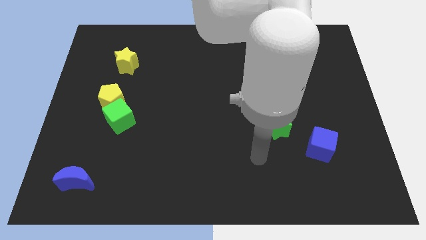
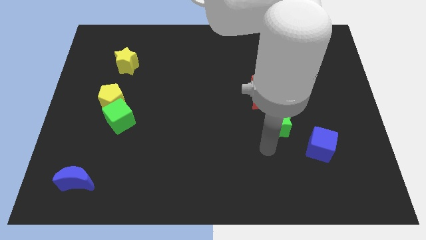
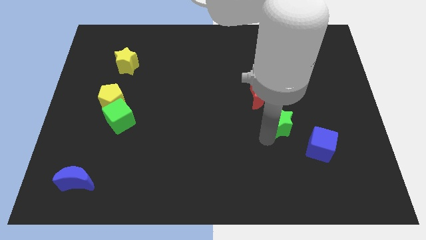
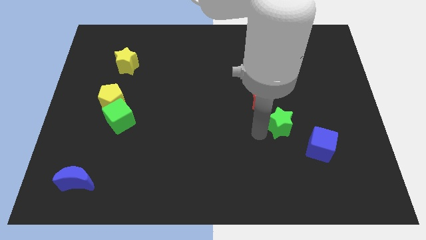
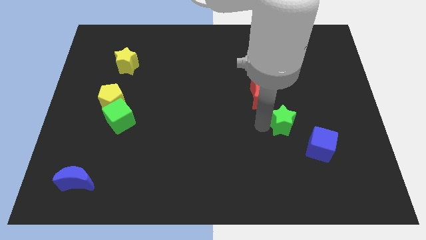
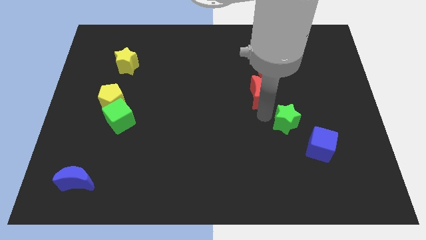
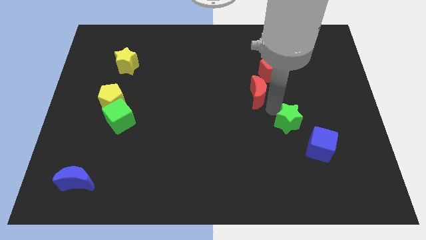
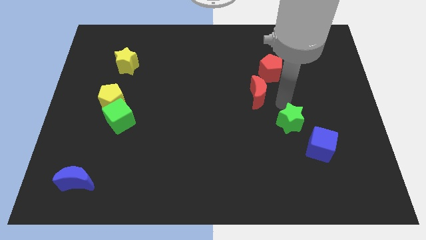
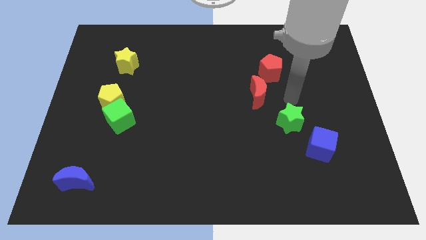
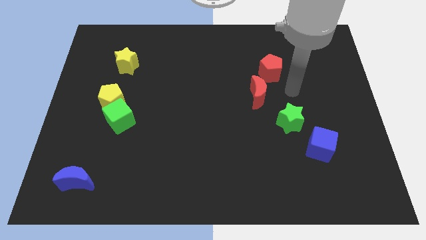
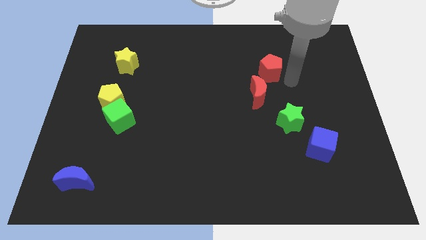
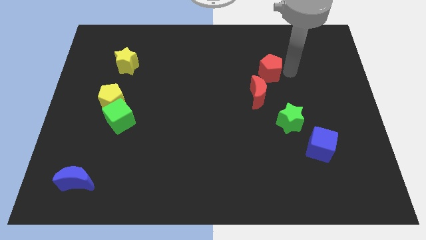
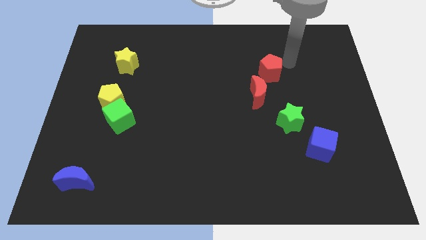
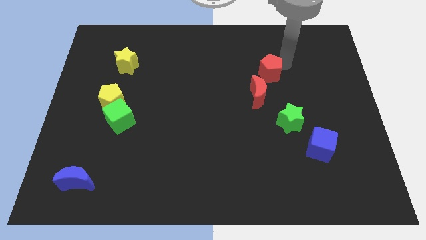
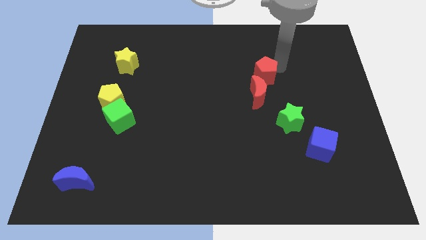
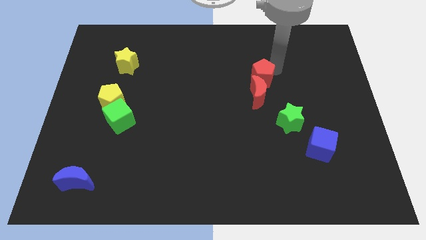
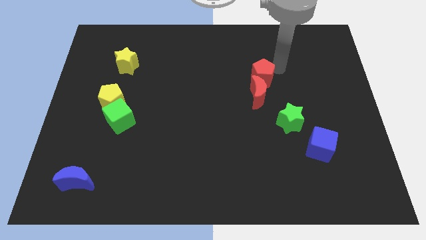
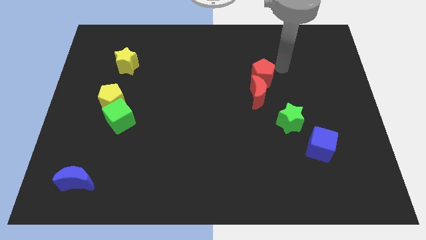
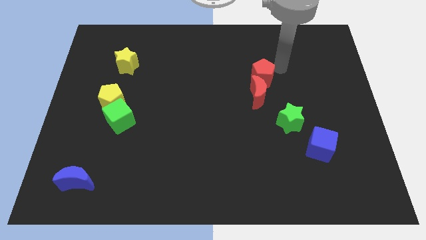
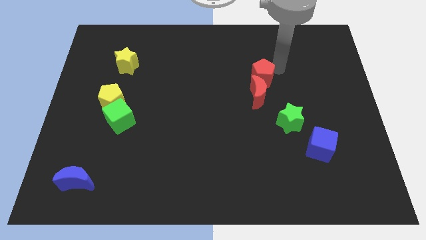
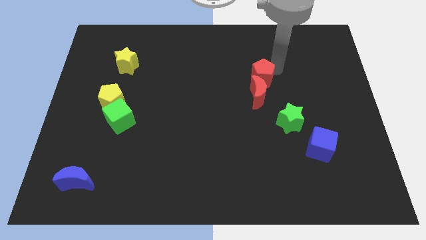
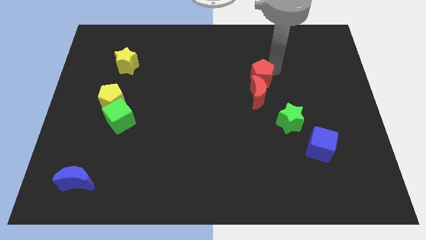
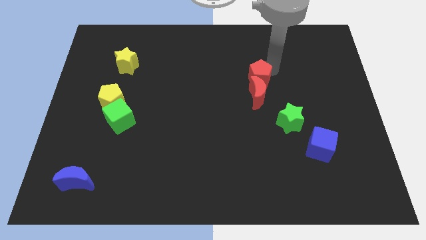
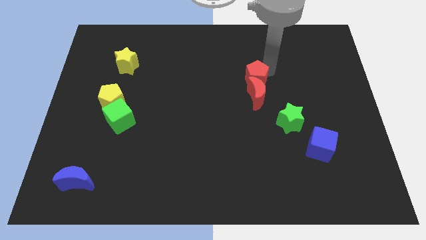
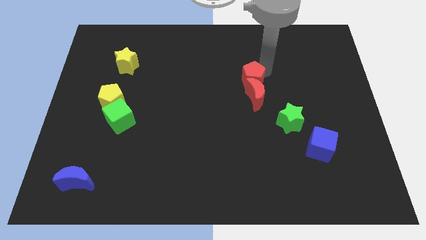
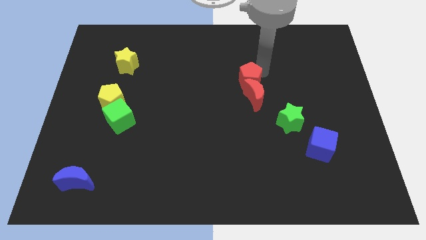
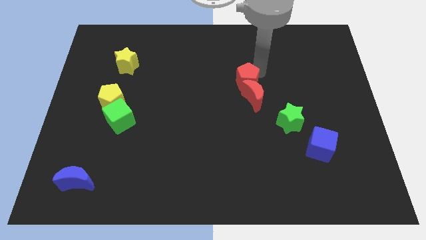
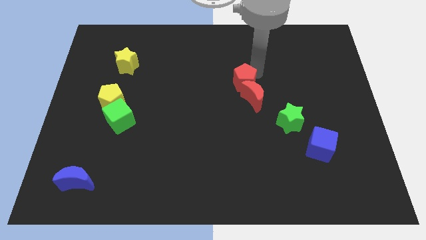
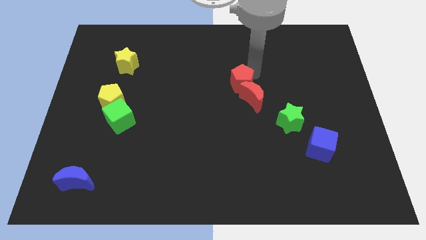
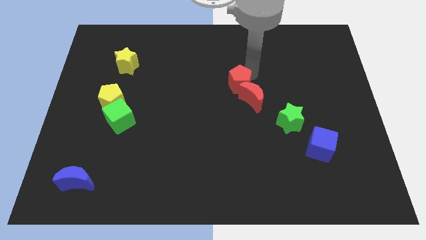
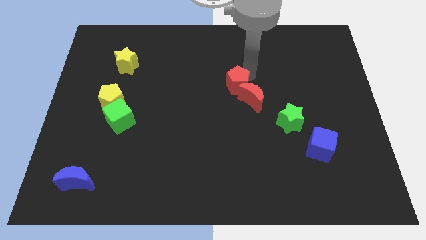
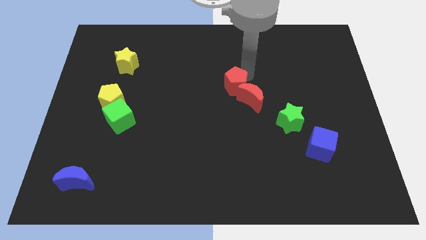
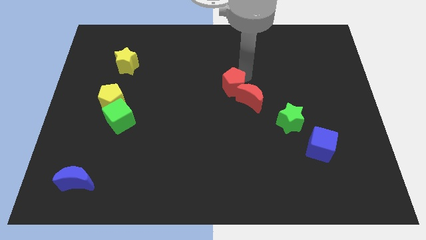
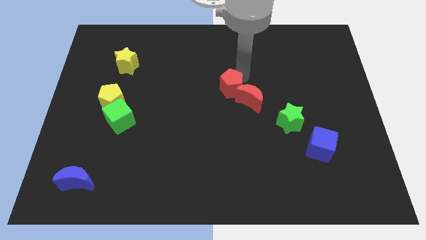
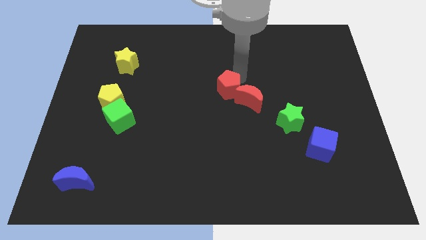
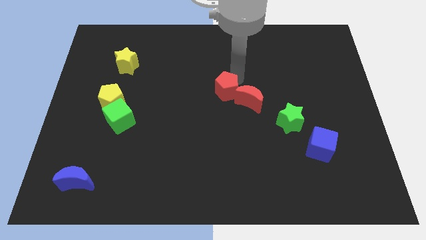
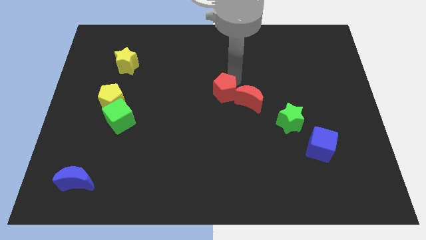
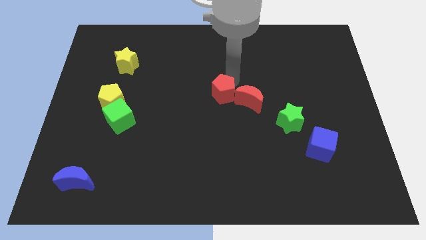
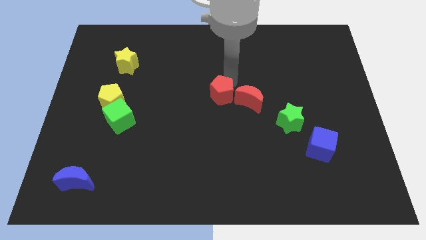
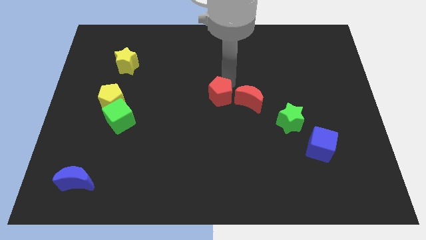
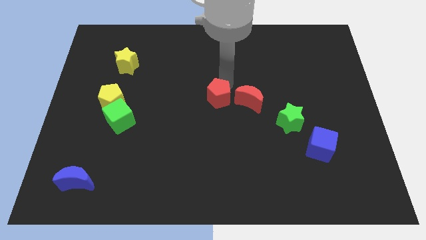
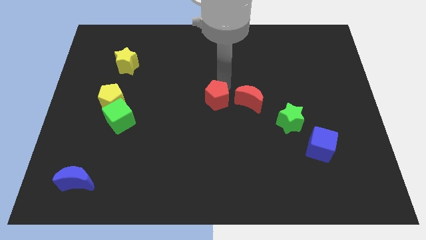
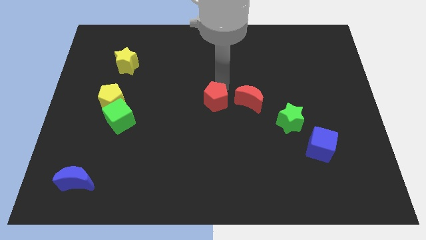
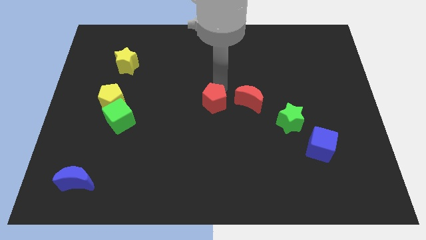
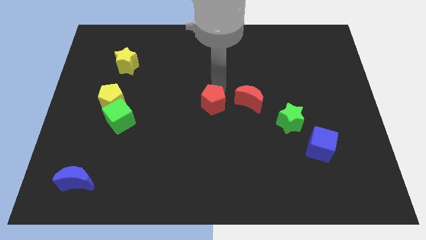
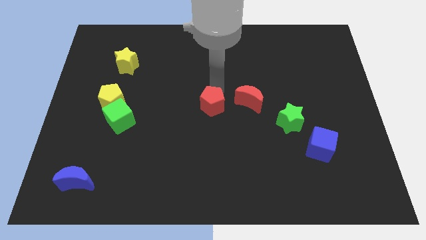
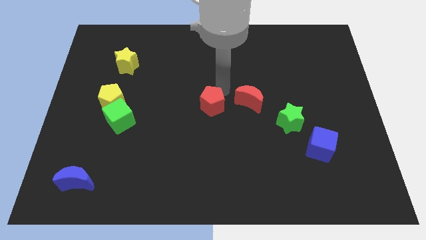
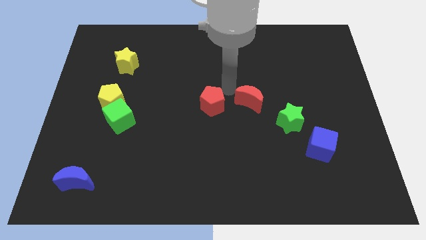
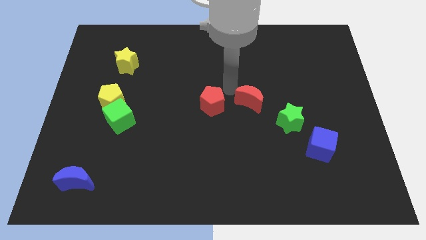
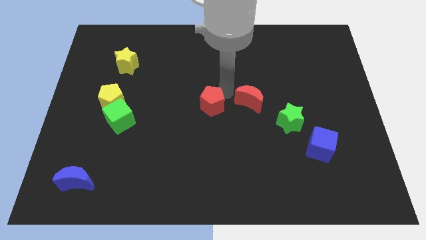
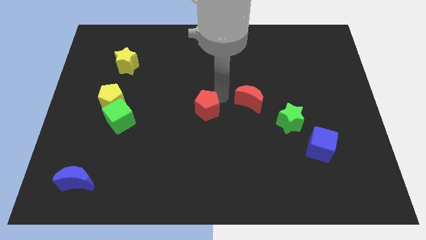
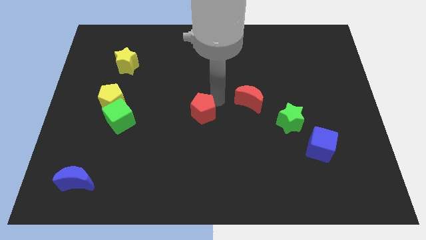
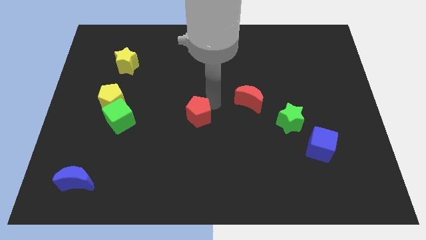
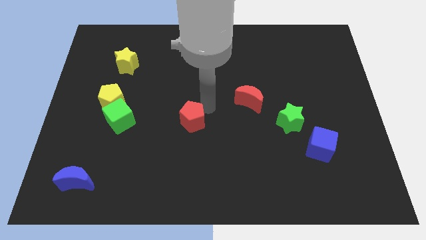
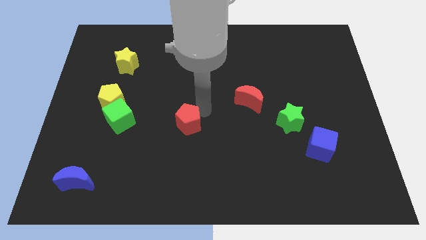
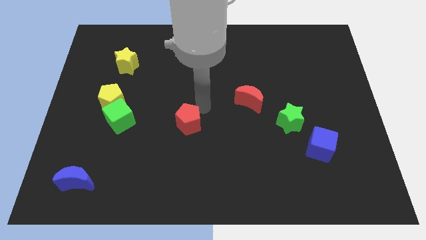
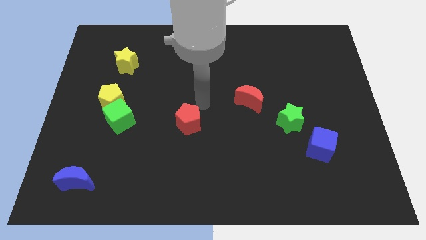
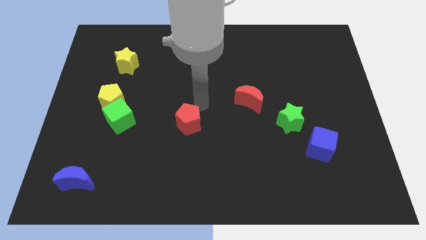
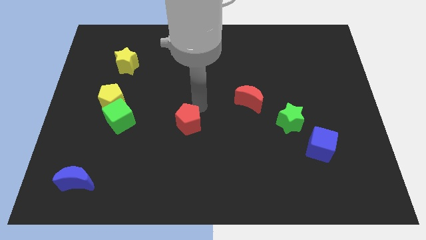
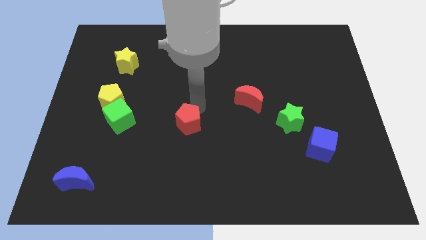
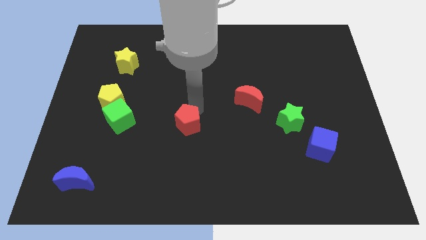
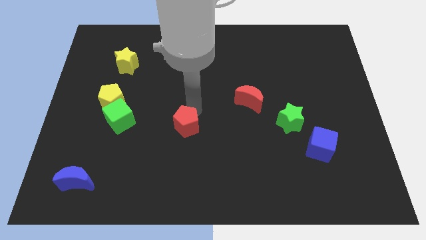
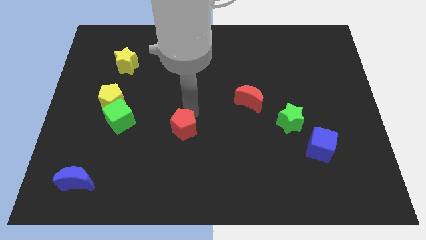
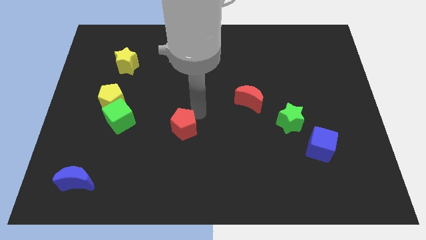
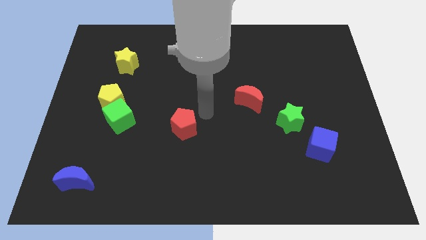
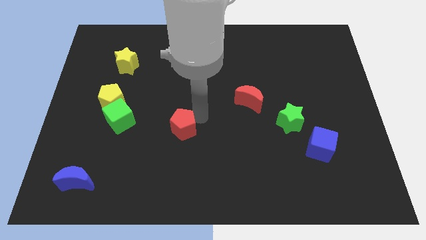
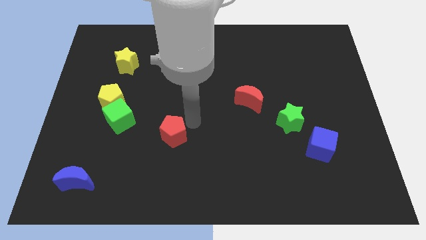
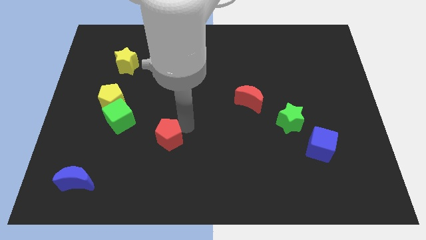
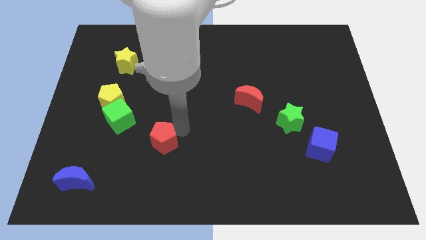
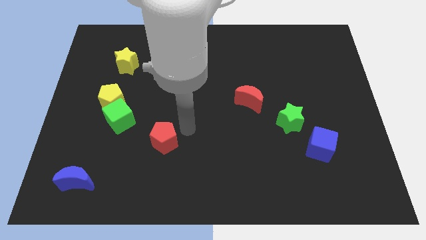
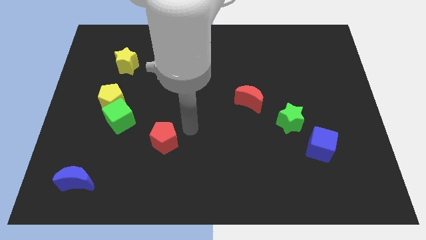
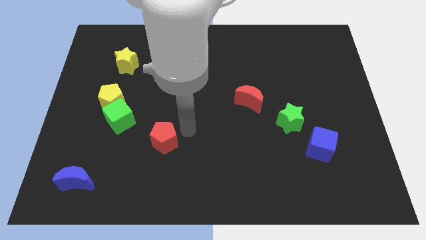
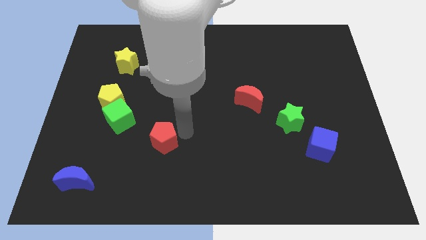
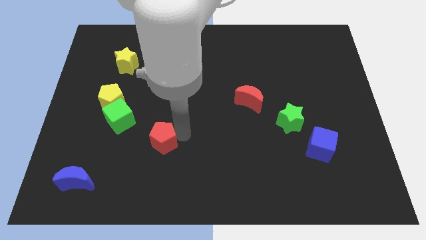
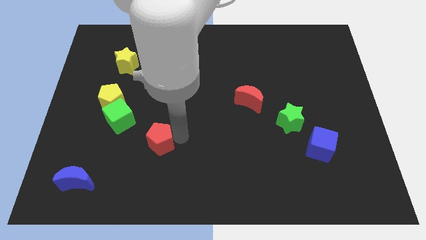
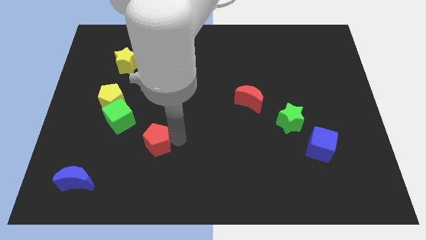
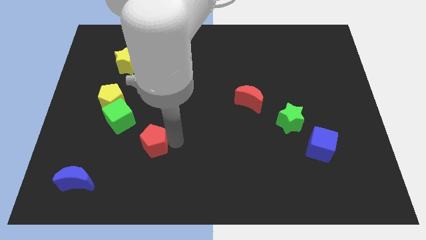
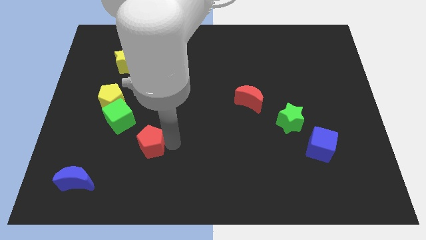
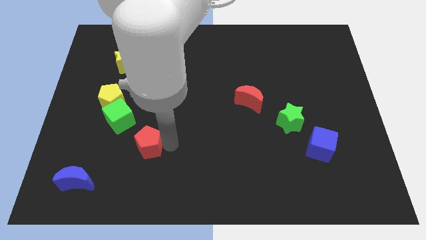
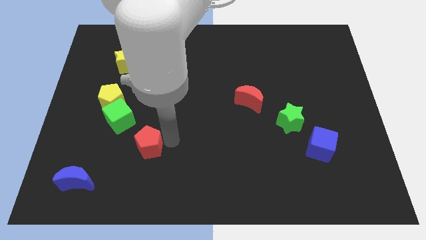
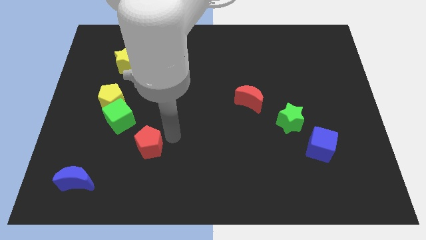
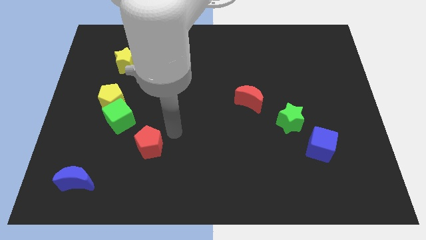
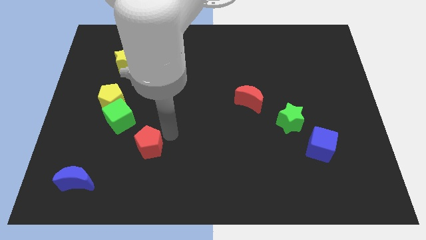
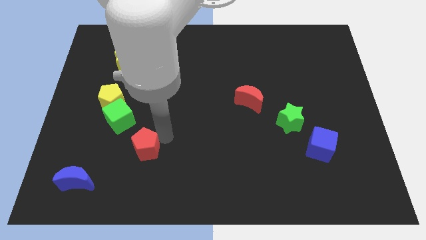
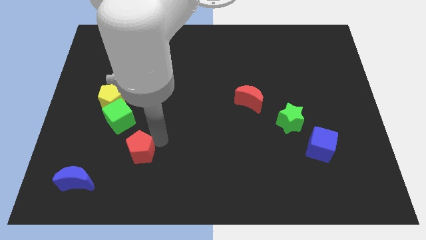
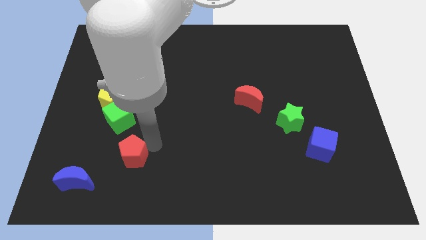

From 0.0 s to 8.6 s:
move the red pentagon to the top right of the blue moon
